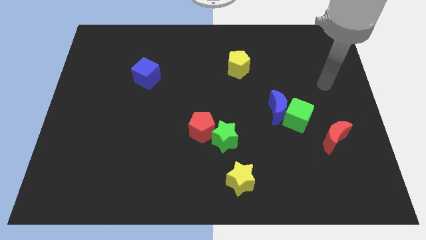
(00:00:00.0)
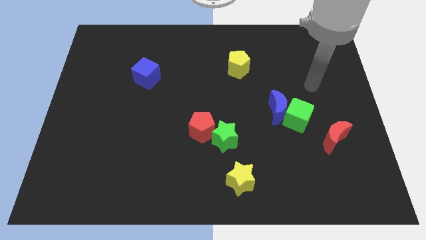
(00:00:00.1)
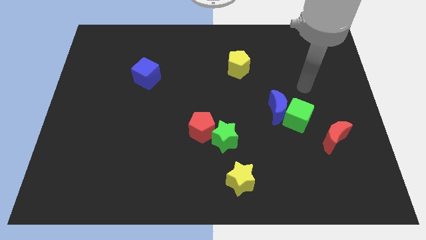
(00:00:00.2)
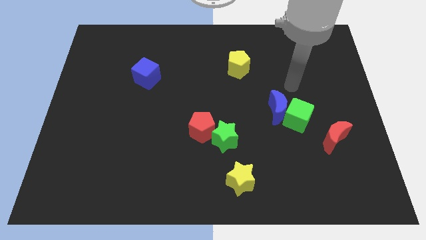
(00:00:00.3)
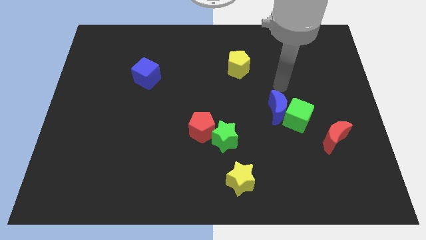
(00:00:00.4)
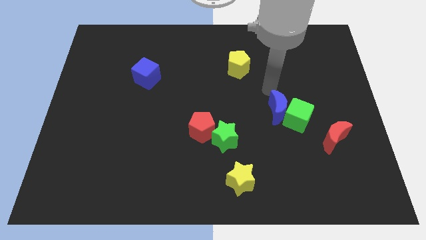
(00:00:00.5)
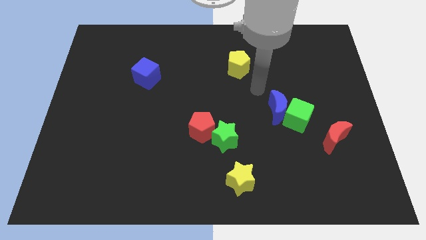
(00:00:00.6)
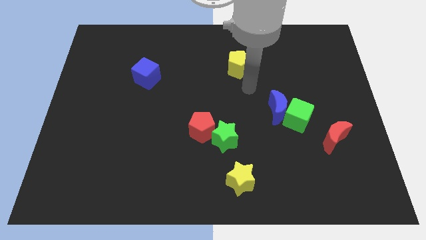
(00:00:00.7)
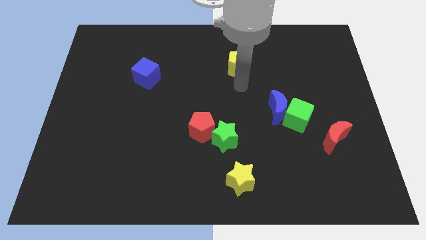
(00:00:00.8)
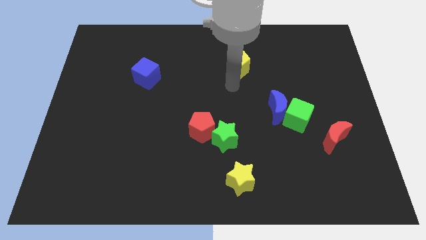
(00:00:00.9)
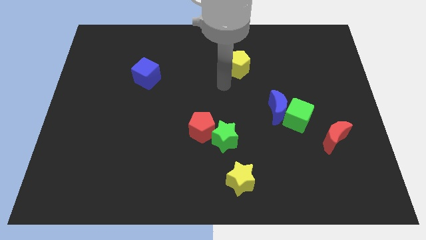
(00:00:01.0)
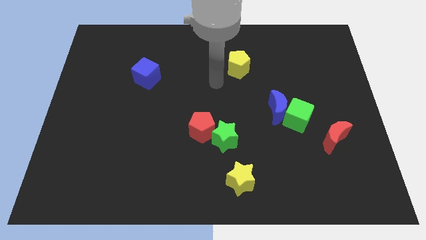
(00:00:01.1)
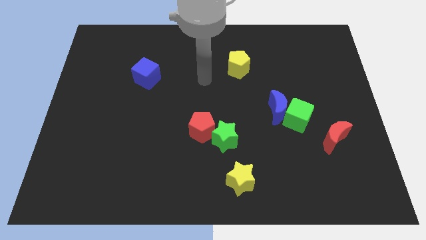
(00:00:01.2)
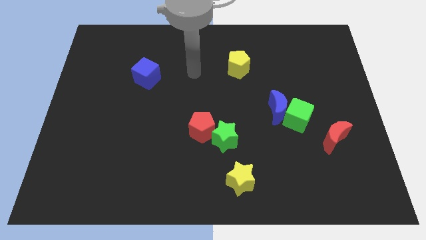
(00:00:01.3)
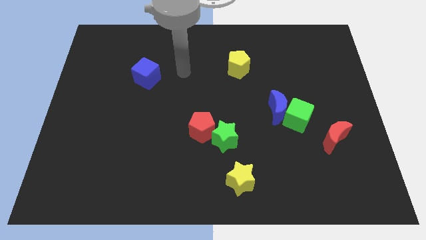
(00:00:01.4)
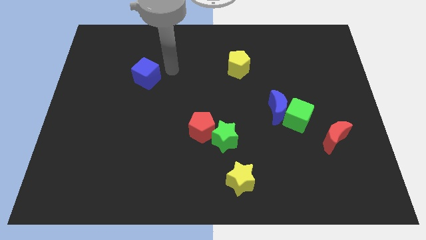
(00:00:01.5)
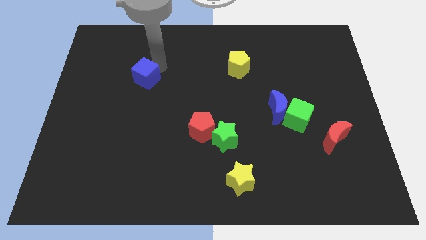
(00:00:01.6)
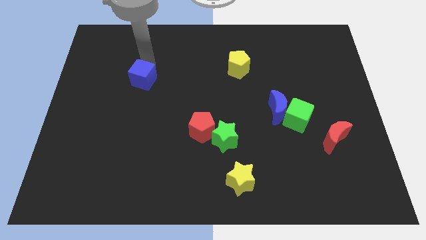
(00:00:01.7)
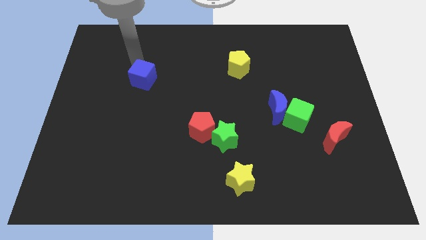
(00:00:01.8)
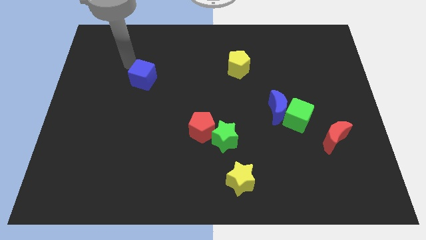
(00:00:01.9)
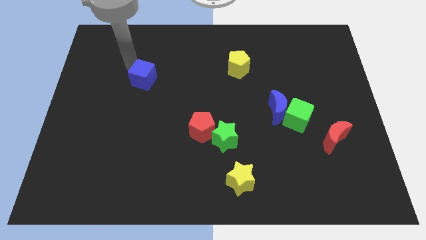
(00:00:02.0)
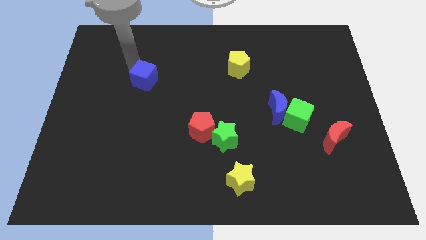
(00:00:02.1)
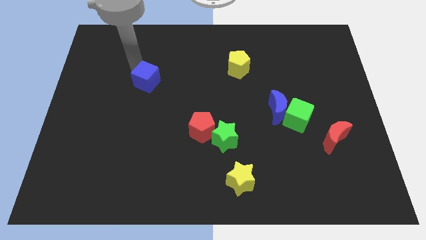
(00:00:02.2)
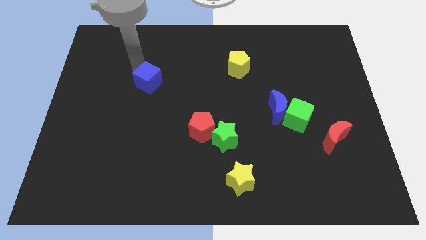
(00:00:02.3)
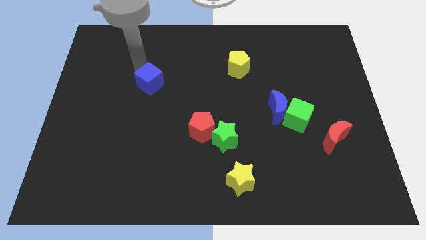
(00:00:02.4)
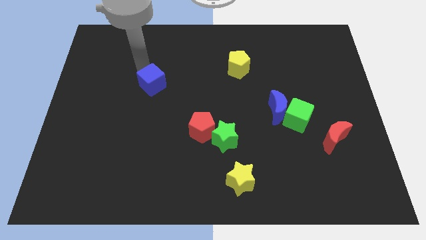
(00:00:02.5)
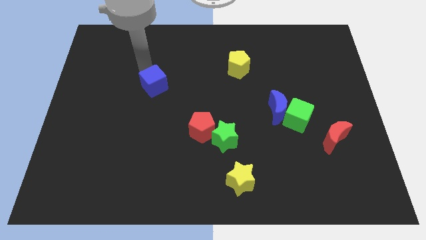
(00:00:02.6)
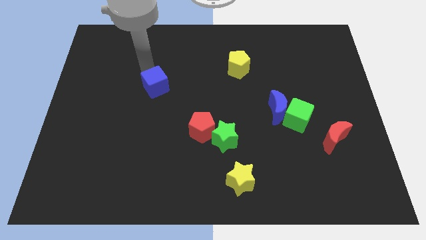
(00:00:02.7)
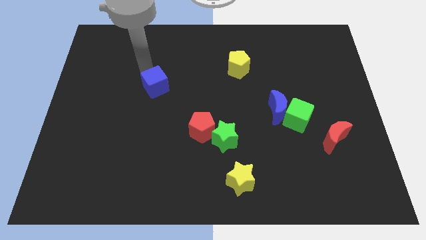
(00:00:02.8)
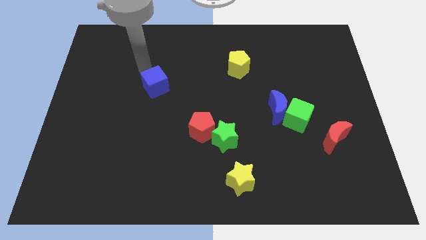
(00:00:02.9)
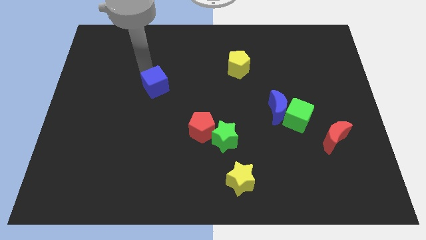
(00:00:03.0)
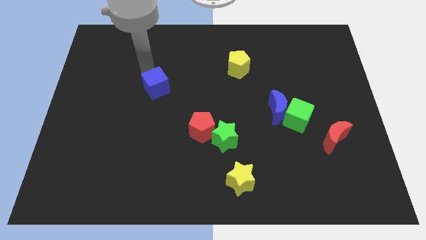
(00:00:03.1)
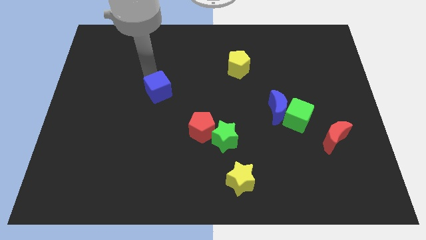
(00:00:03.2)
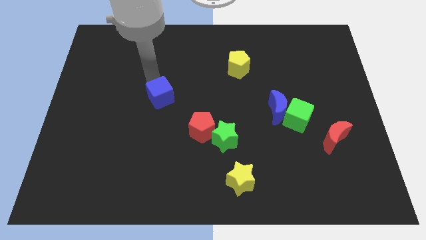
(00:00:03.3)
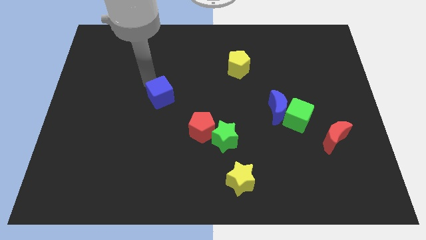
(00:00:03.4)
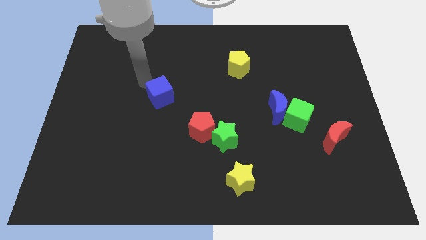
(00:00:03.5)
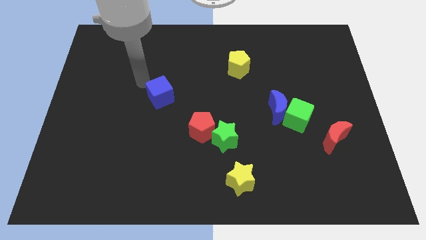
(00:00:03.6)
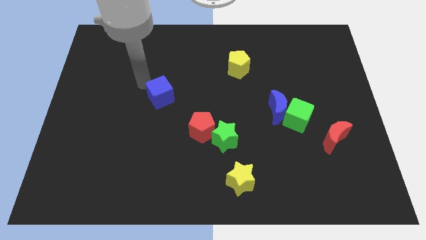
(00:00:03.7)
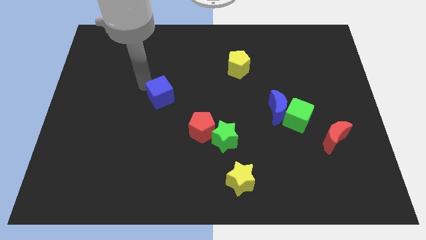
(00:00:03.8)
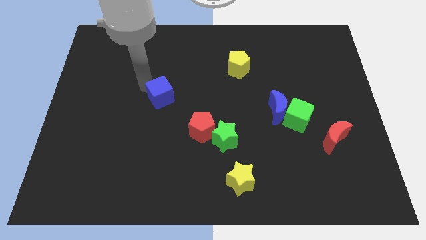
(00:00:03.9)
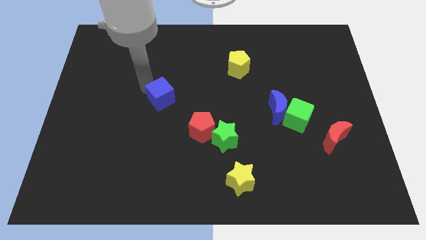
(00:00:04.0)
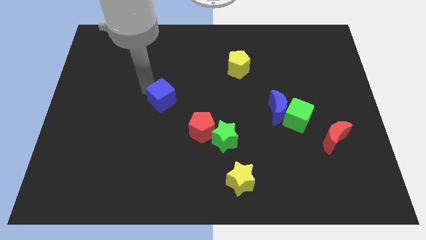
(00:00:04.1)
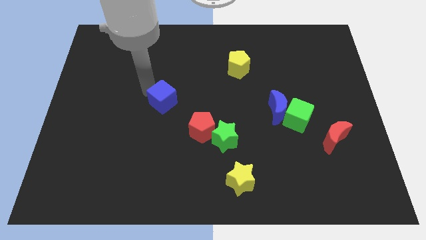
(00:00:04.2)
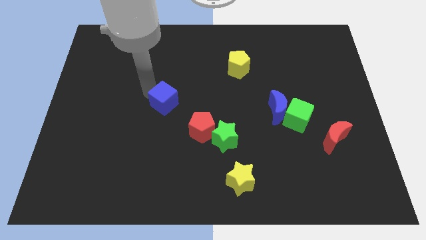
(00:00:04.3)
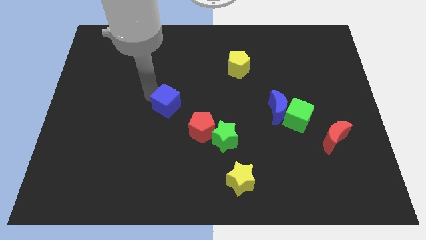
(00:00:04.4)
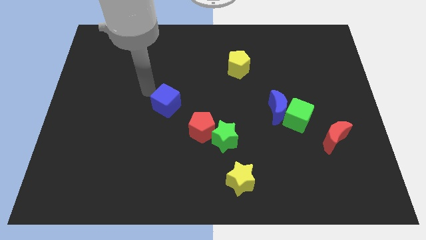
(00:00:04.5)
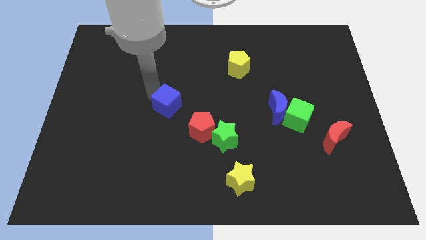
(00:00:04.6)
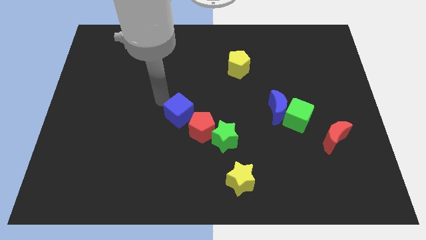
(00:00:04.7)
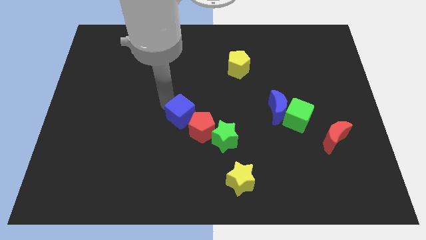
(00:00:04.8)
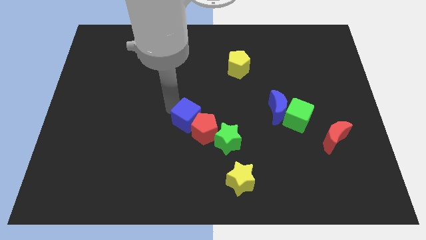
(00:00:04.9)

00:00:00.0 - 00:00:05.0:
move the blue cube next to the red pentagon

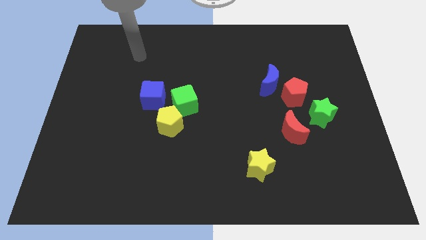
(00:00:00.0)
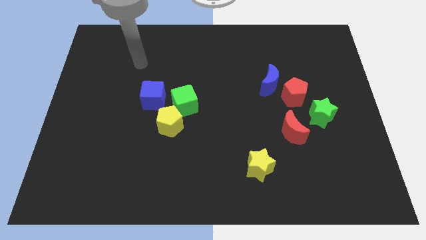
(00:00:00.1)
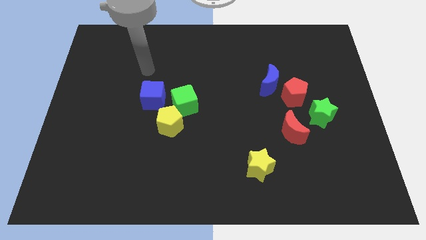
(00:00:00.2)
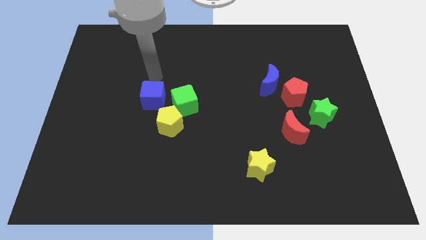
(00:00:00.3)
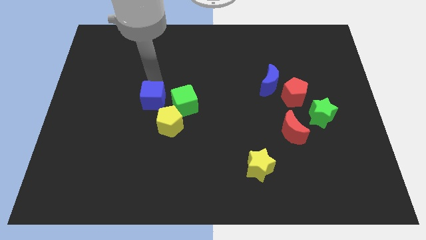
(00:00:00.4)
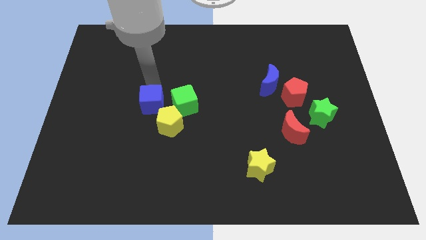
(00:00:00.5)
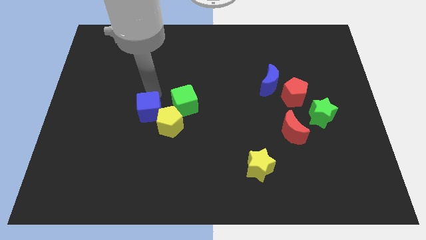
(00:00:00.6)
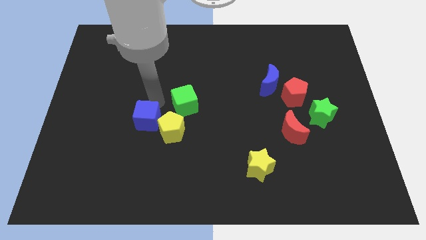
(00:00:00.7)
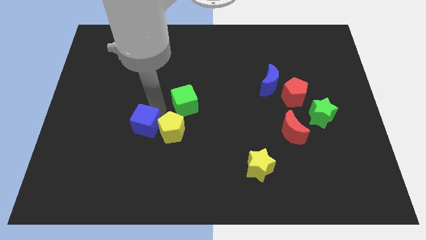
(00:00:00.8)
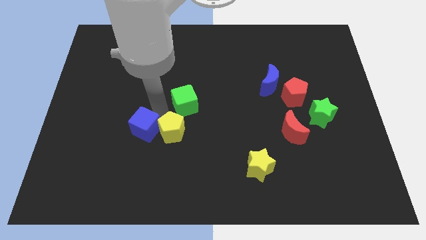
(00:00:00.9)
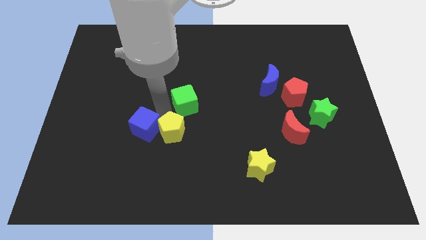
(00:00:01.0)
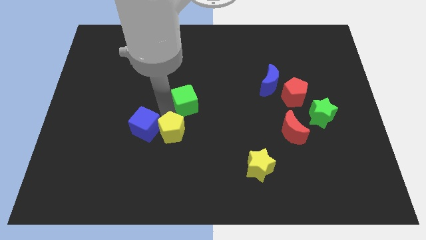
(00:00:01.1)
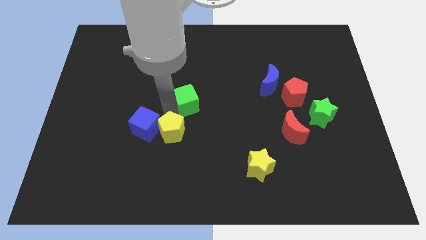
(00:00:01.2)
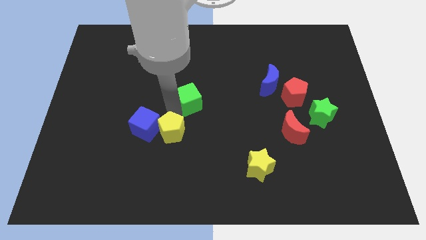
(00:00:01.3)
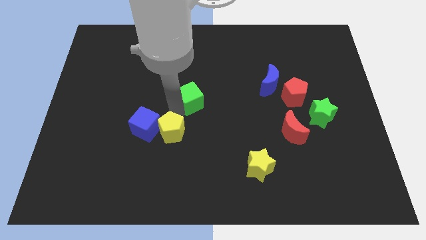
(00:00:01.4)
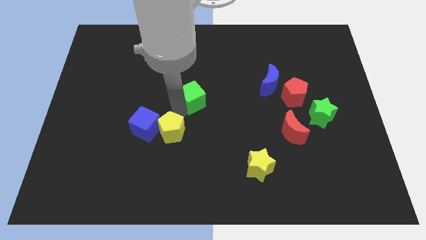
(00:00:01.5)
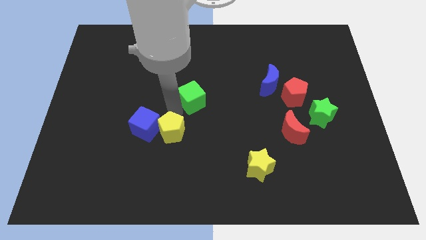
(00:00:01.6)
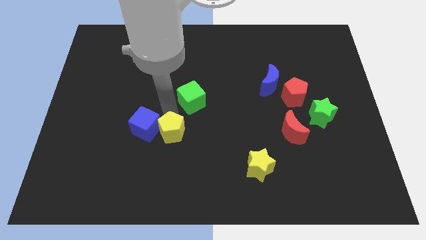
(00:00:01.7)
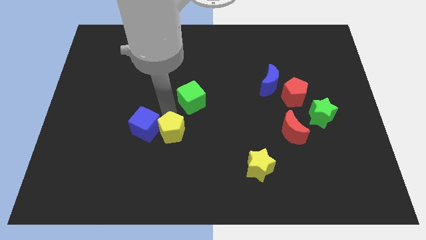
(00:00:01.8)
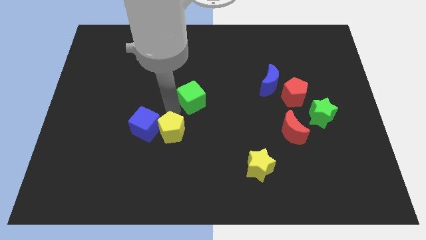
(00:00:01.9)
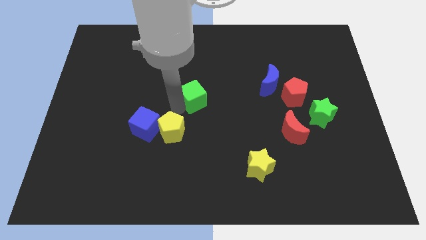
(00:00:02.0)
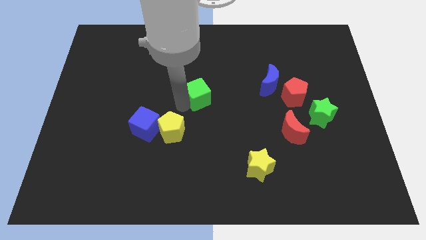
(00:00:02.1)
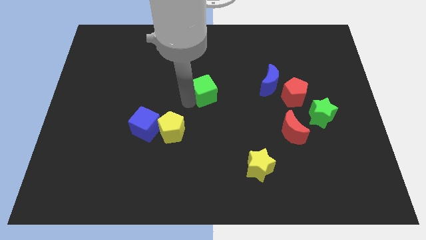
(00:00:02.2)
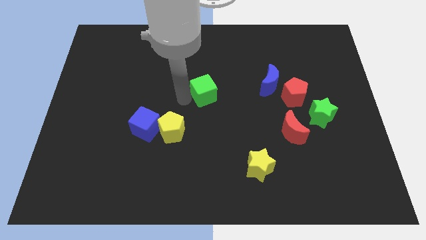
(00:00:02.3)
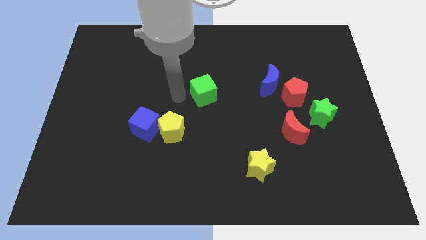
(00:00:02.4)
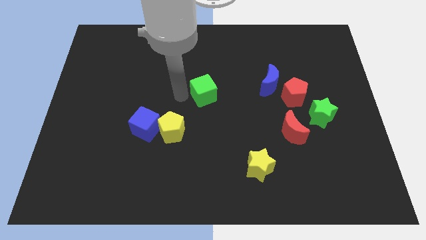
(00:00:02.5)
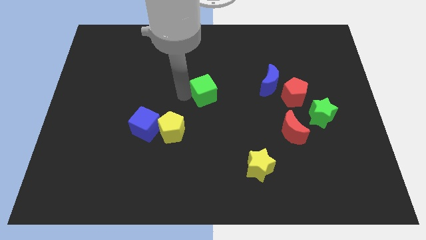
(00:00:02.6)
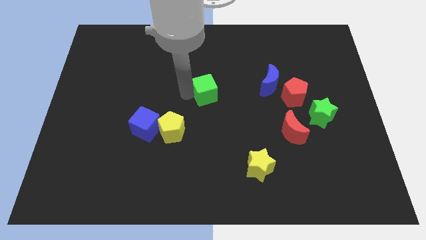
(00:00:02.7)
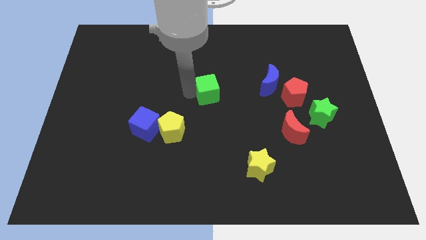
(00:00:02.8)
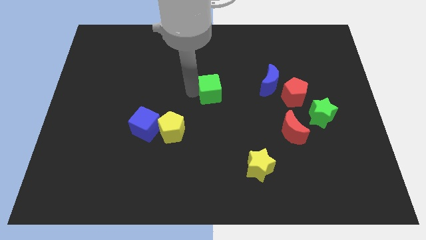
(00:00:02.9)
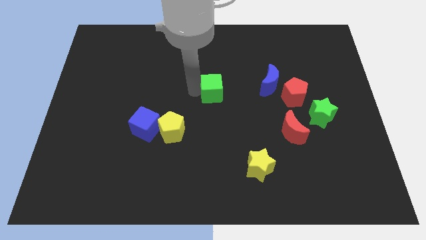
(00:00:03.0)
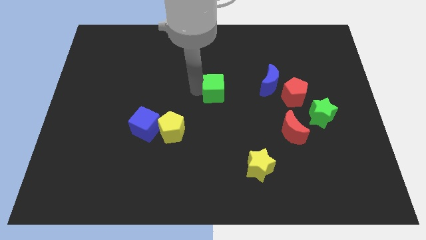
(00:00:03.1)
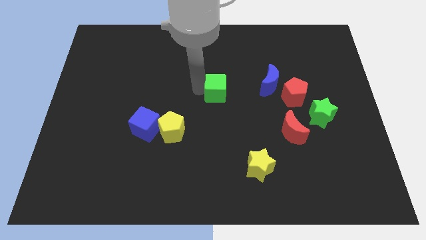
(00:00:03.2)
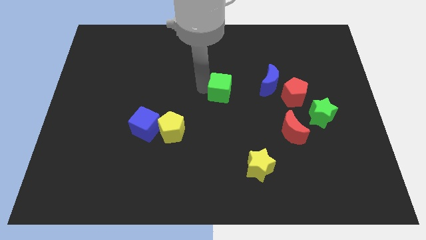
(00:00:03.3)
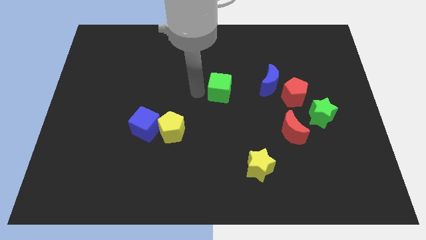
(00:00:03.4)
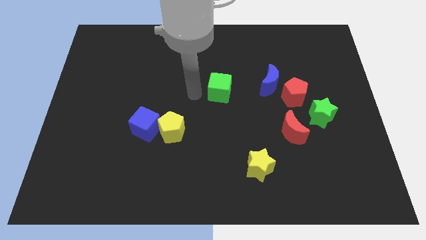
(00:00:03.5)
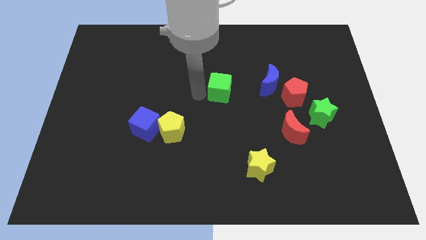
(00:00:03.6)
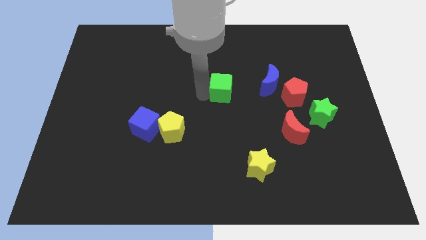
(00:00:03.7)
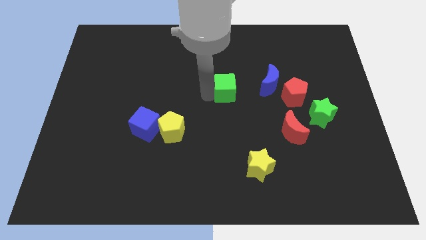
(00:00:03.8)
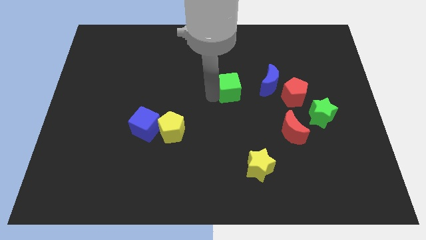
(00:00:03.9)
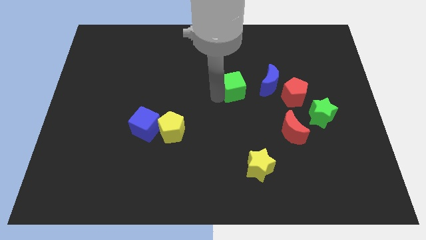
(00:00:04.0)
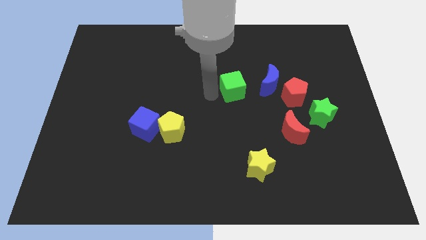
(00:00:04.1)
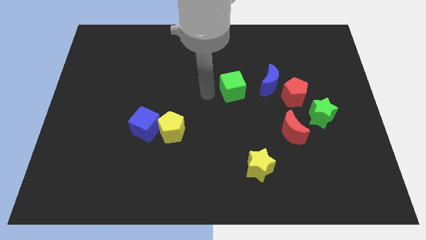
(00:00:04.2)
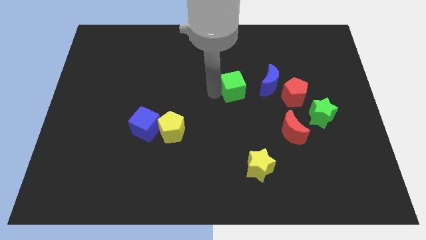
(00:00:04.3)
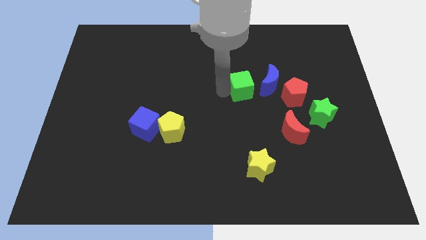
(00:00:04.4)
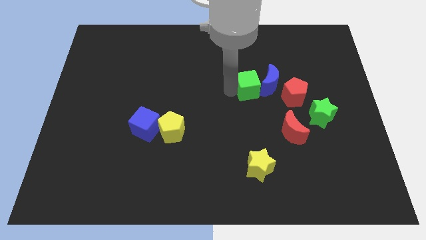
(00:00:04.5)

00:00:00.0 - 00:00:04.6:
move the green cube next to the blue moon
